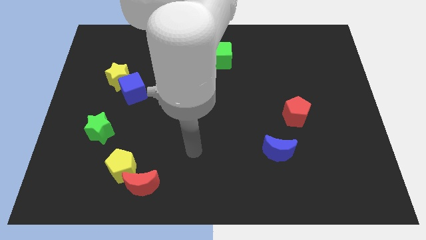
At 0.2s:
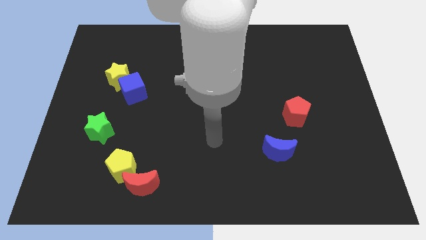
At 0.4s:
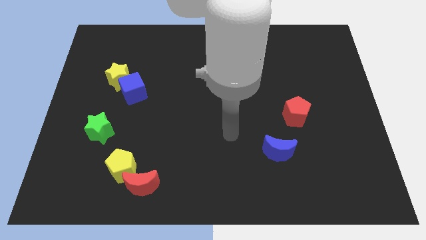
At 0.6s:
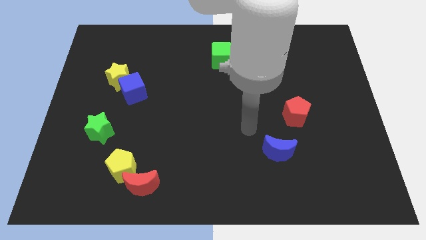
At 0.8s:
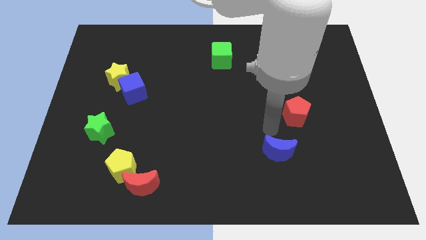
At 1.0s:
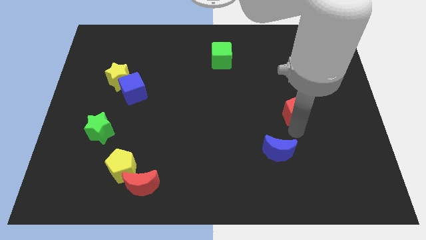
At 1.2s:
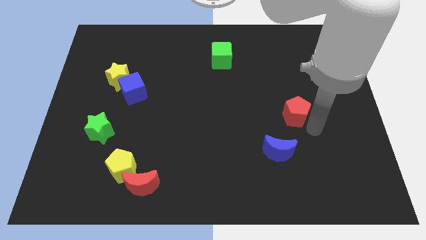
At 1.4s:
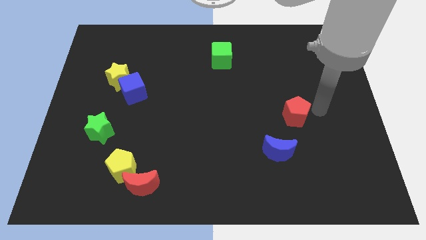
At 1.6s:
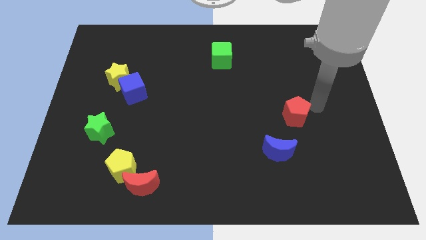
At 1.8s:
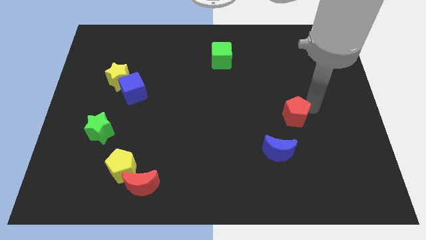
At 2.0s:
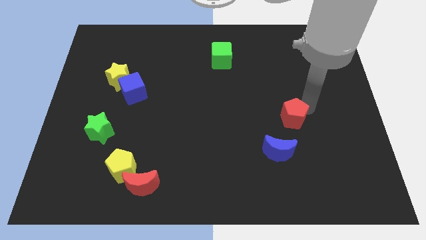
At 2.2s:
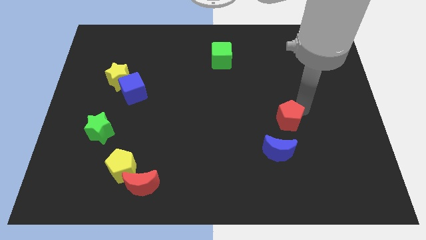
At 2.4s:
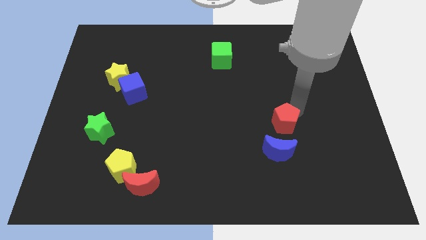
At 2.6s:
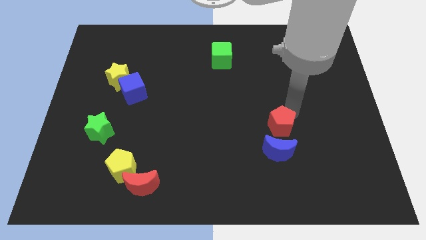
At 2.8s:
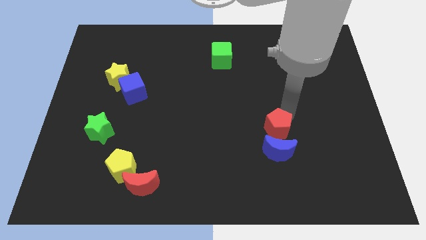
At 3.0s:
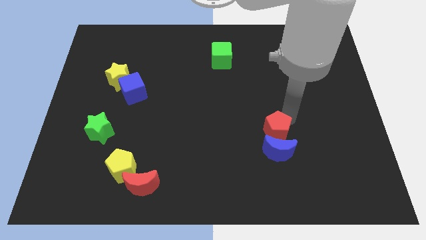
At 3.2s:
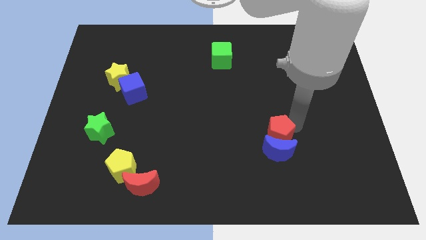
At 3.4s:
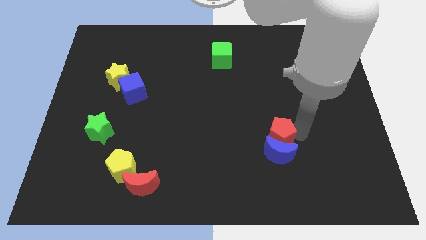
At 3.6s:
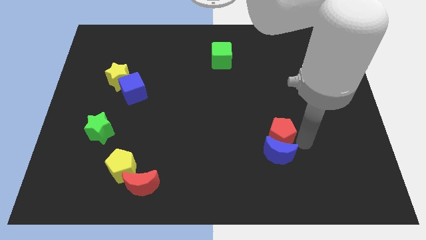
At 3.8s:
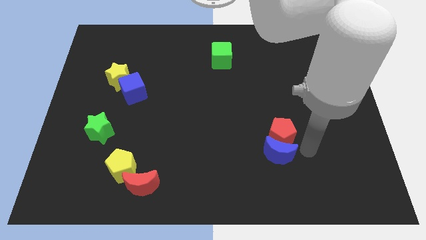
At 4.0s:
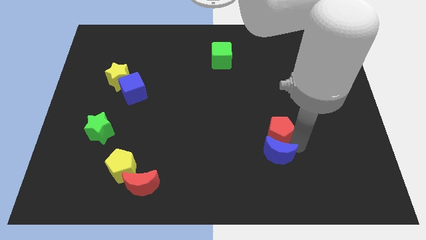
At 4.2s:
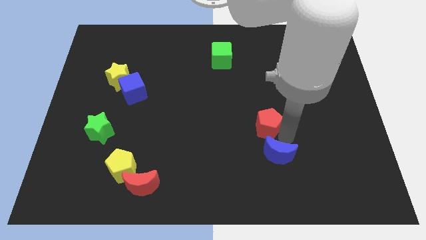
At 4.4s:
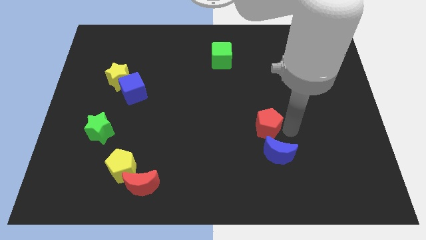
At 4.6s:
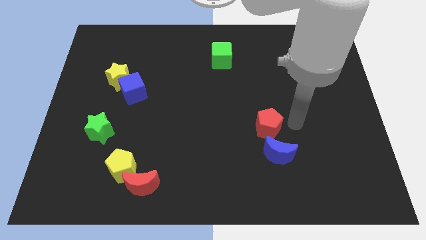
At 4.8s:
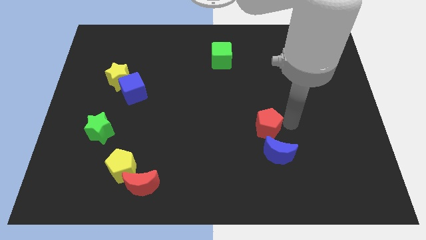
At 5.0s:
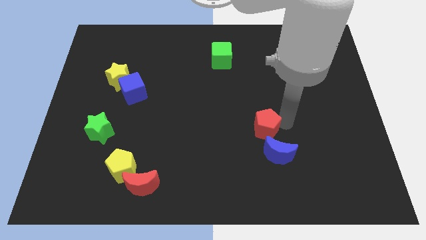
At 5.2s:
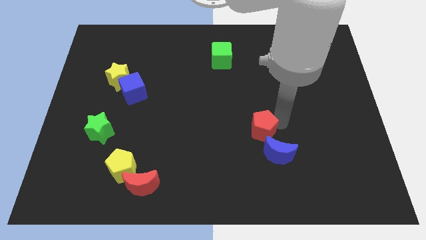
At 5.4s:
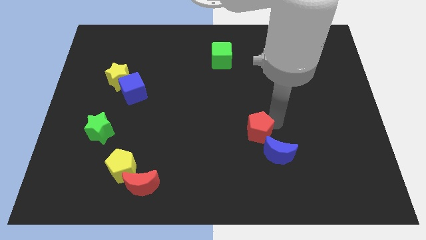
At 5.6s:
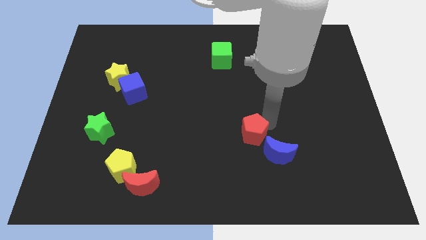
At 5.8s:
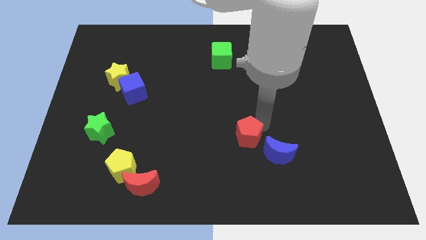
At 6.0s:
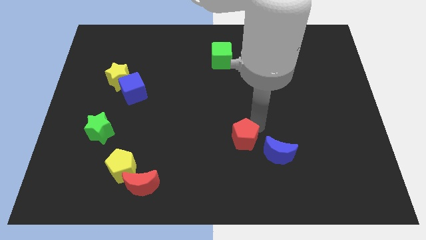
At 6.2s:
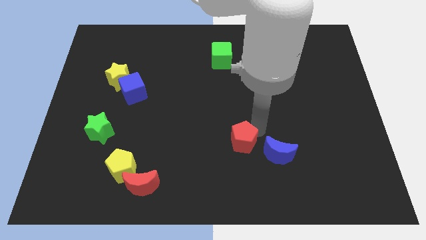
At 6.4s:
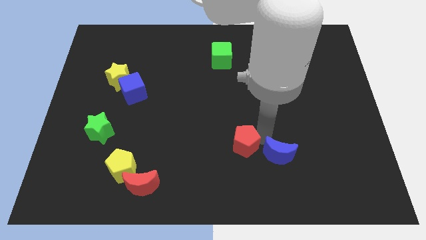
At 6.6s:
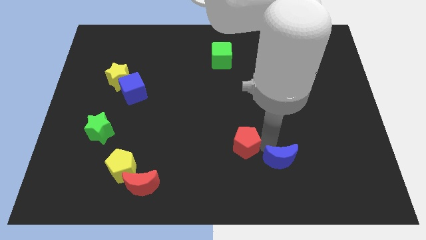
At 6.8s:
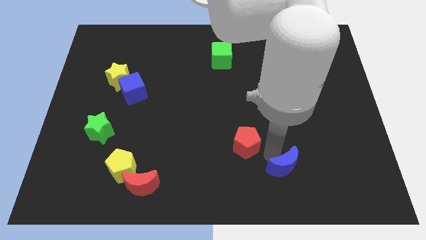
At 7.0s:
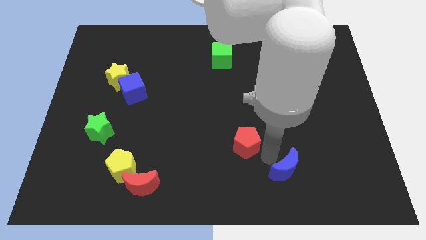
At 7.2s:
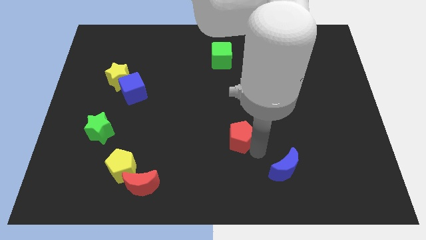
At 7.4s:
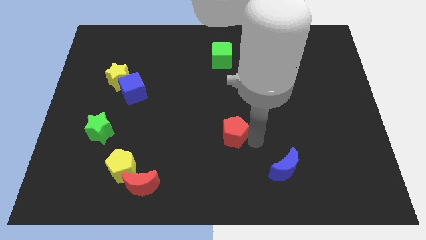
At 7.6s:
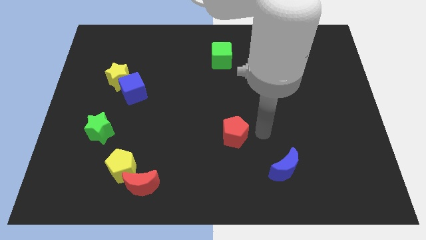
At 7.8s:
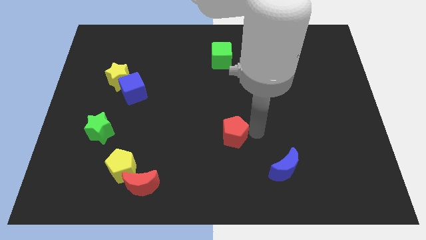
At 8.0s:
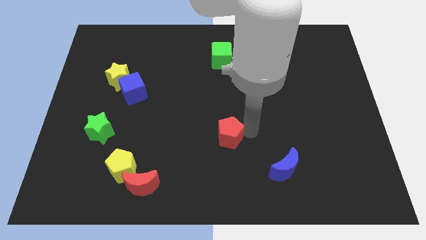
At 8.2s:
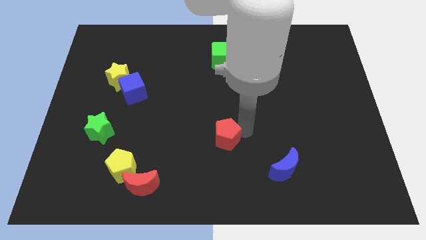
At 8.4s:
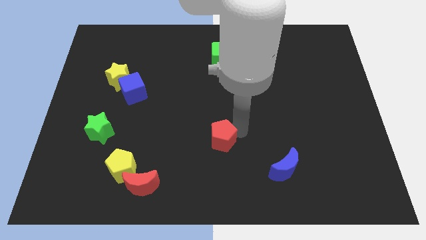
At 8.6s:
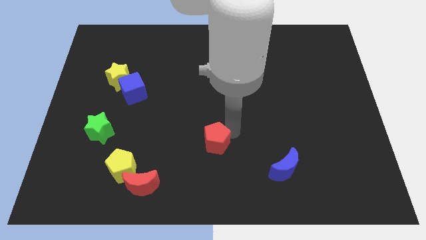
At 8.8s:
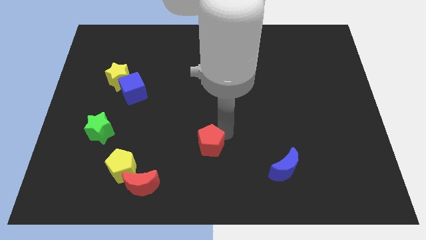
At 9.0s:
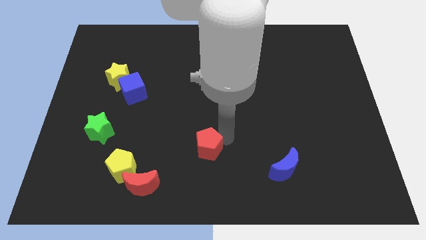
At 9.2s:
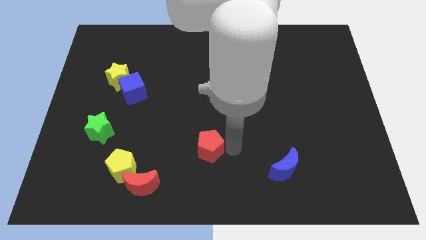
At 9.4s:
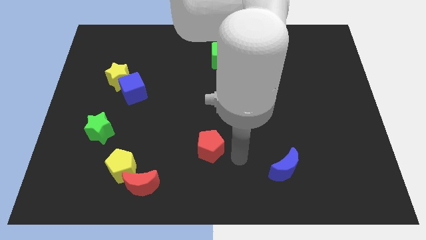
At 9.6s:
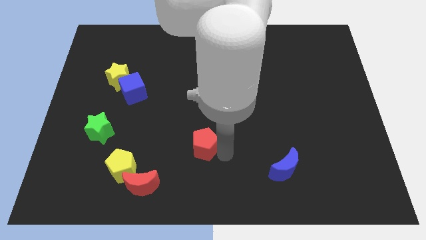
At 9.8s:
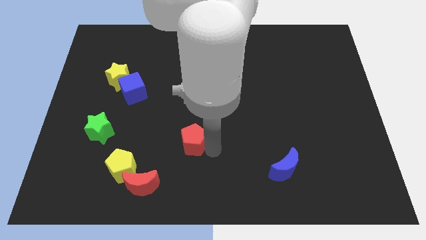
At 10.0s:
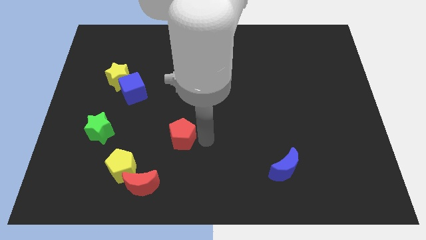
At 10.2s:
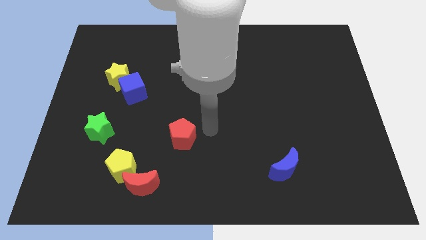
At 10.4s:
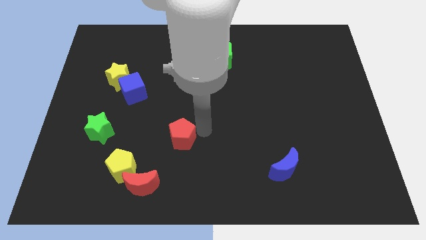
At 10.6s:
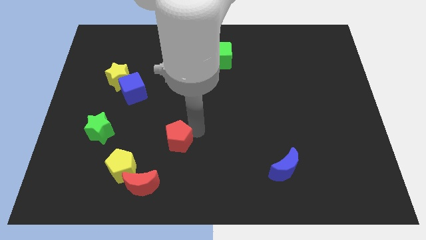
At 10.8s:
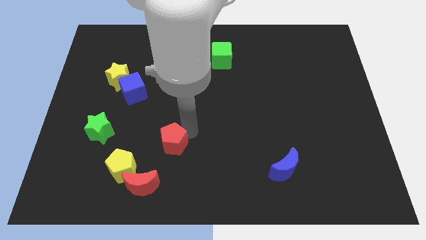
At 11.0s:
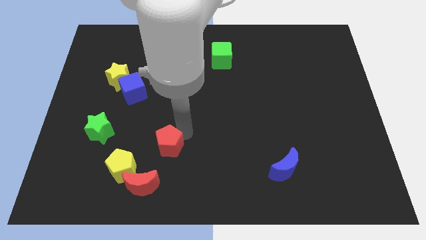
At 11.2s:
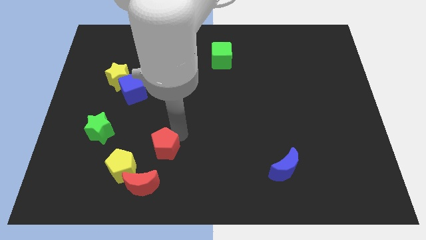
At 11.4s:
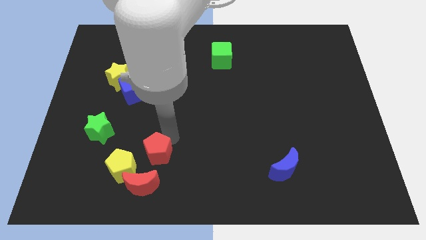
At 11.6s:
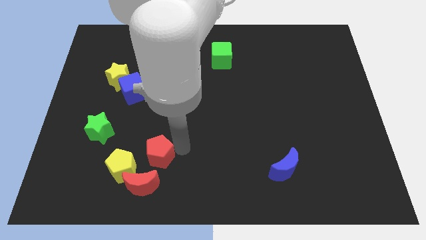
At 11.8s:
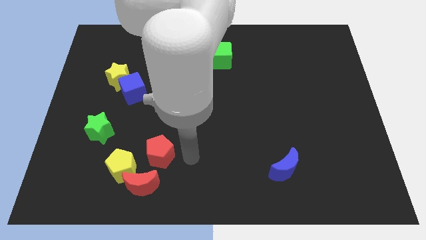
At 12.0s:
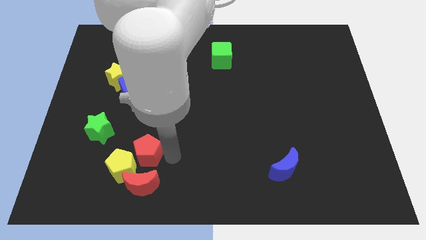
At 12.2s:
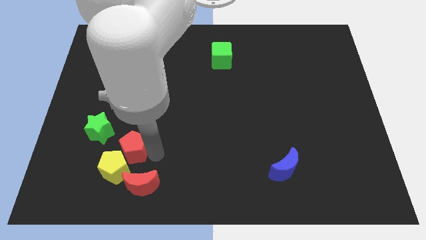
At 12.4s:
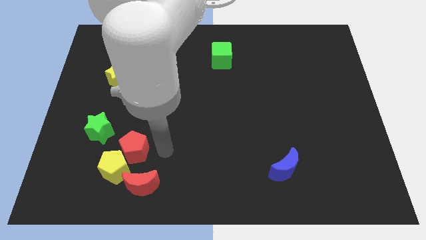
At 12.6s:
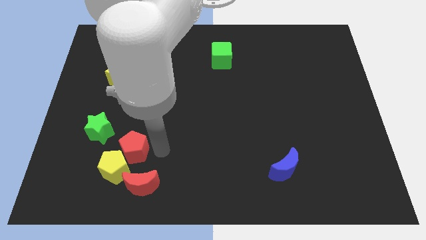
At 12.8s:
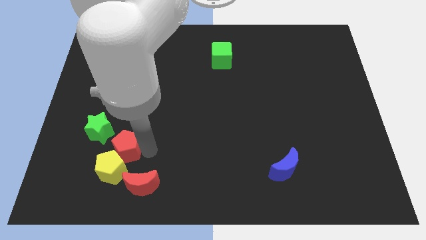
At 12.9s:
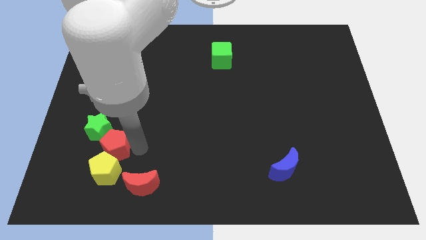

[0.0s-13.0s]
slide the red pentagon to the bottom of the green star

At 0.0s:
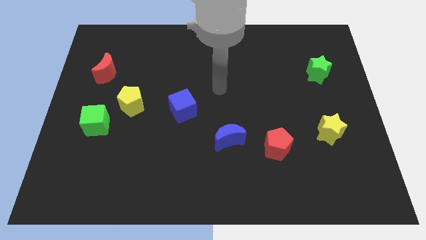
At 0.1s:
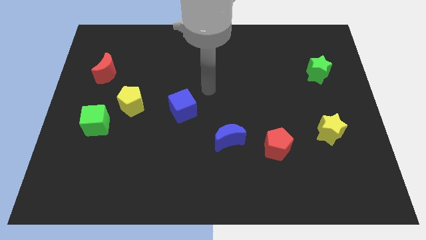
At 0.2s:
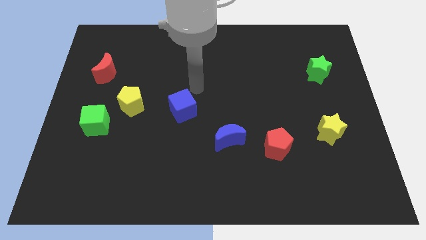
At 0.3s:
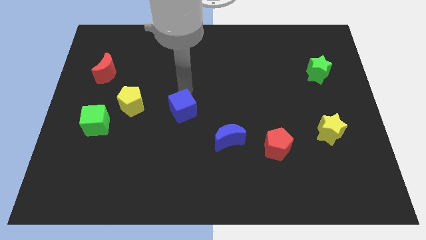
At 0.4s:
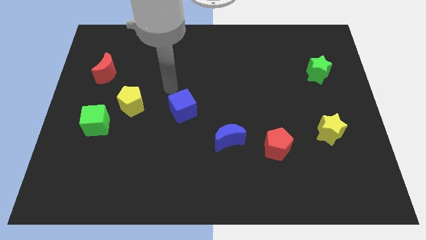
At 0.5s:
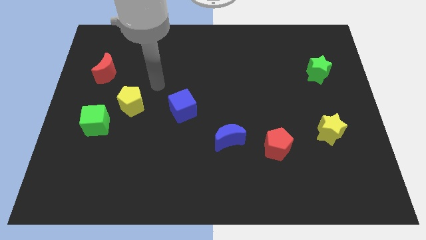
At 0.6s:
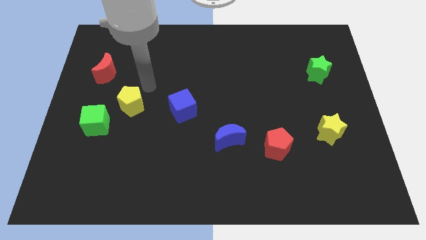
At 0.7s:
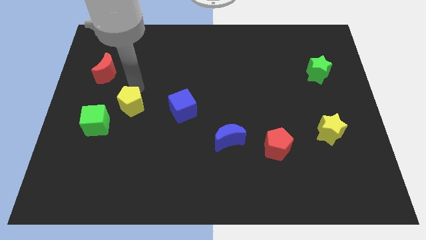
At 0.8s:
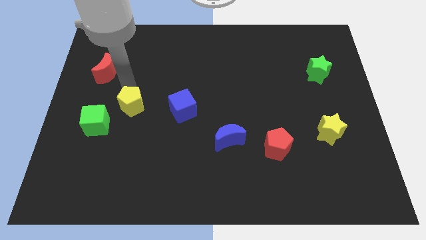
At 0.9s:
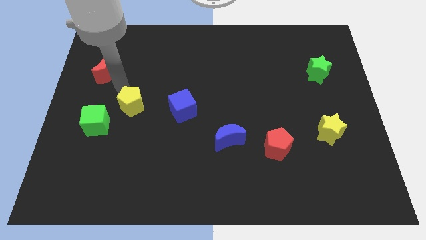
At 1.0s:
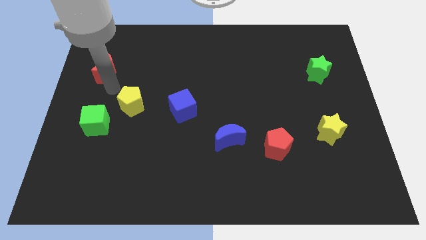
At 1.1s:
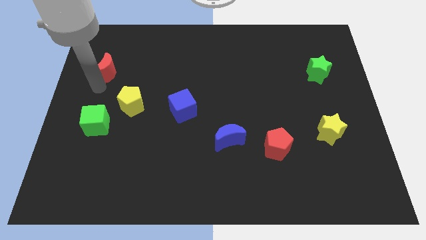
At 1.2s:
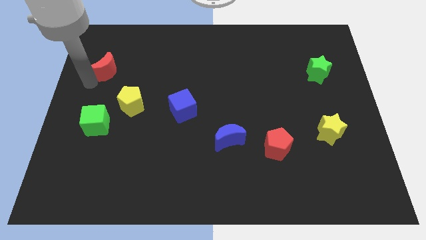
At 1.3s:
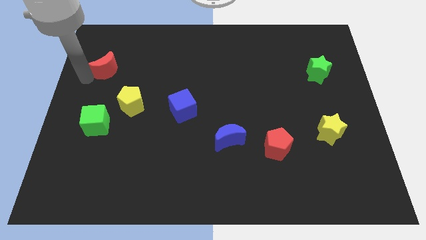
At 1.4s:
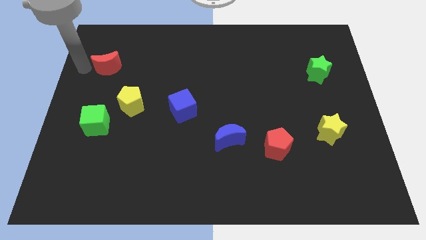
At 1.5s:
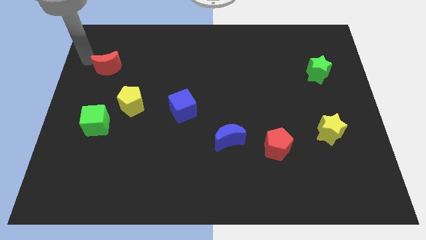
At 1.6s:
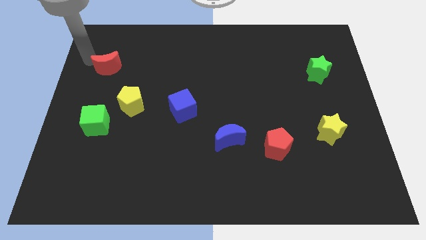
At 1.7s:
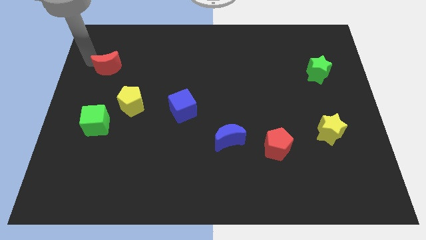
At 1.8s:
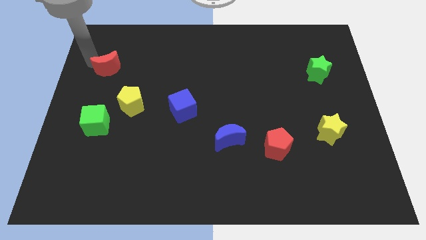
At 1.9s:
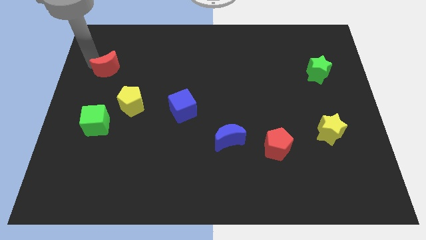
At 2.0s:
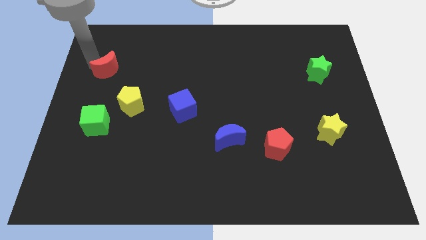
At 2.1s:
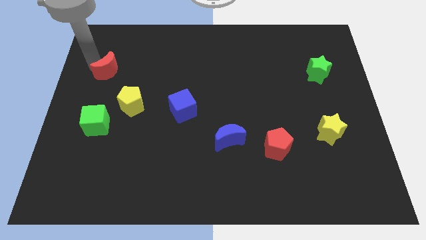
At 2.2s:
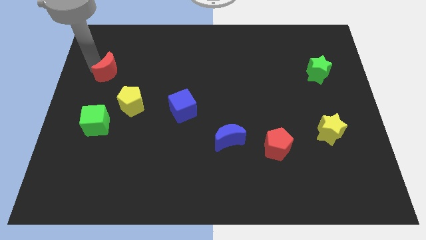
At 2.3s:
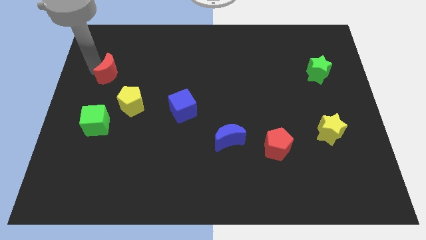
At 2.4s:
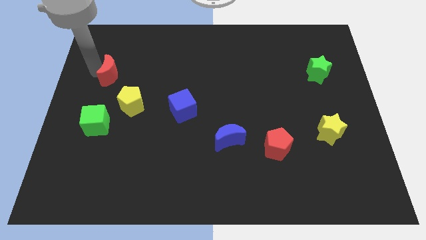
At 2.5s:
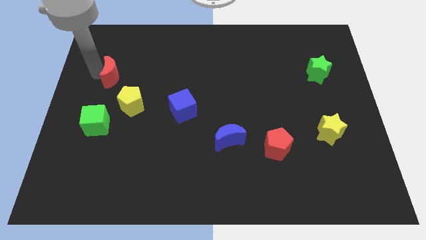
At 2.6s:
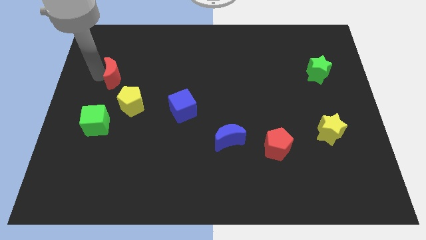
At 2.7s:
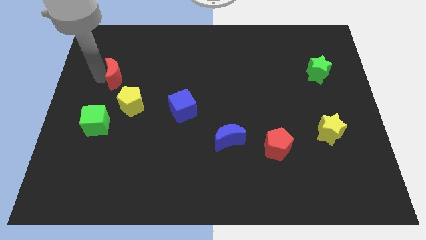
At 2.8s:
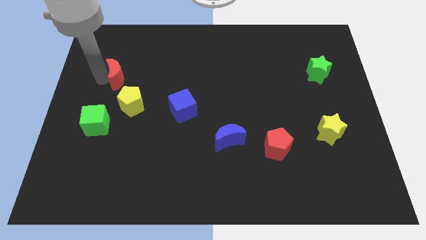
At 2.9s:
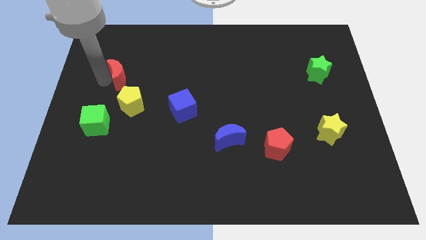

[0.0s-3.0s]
push the red moon to the top side of the yellow pentagon
